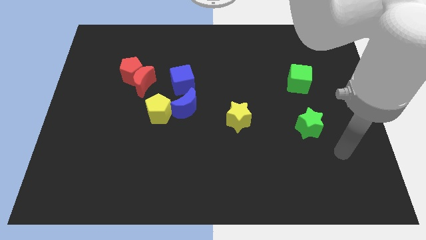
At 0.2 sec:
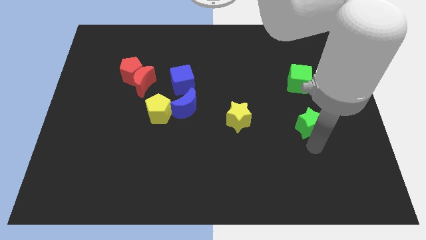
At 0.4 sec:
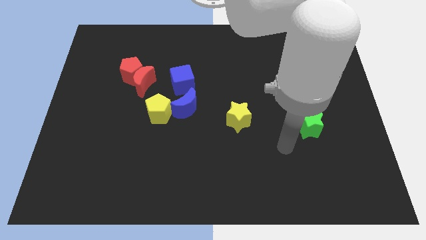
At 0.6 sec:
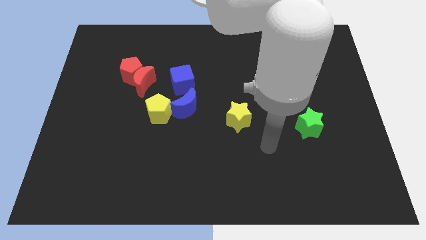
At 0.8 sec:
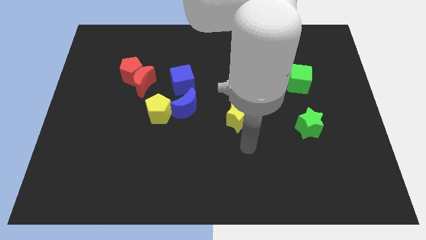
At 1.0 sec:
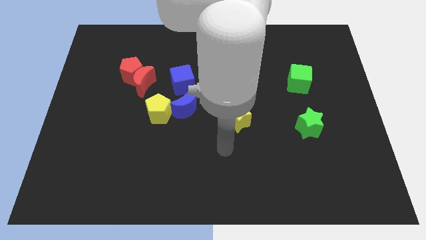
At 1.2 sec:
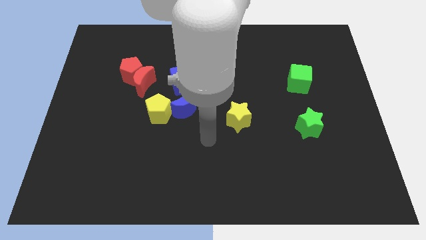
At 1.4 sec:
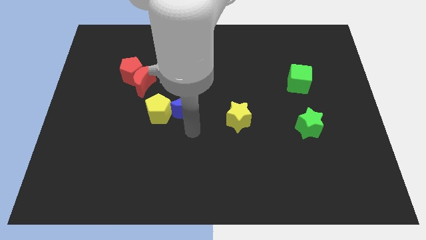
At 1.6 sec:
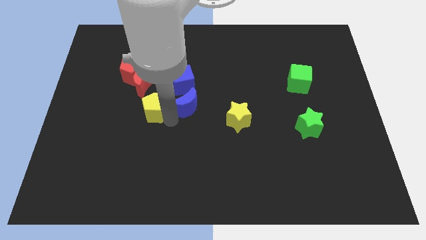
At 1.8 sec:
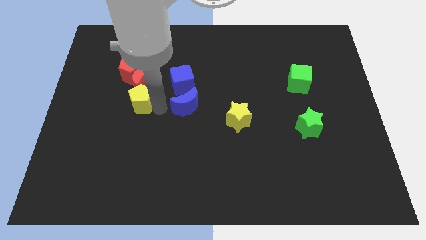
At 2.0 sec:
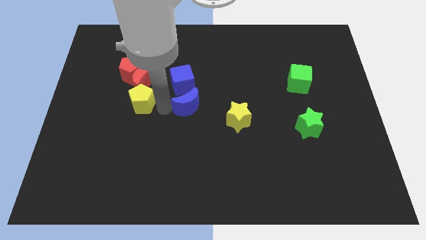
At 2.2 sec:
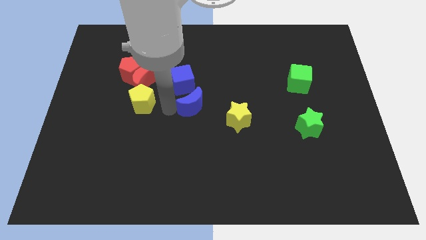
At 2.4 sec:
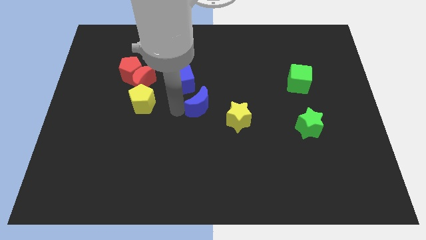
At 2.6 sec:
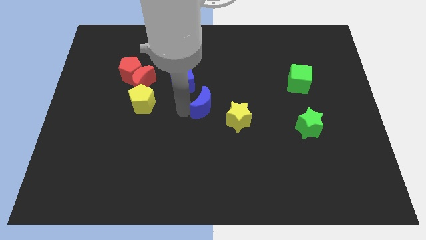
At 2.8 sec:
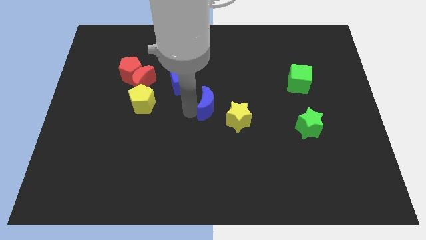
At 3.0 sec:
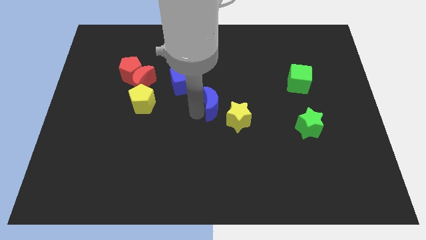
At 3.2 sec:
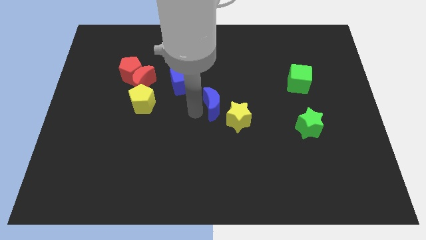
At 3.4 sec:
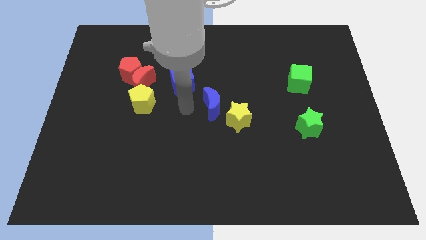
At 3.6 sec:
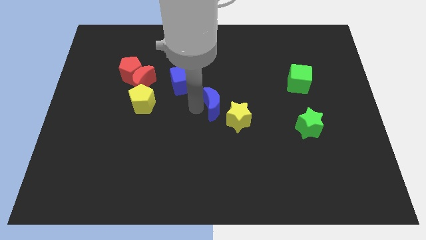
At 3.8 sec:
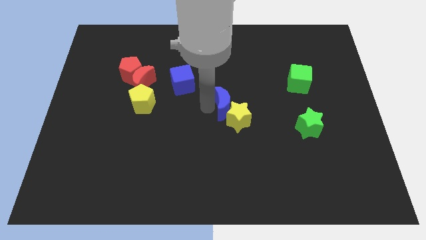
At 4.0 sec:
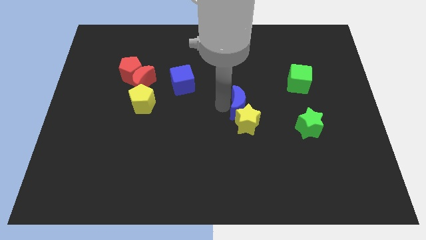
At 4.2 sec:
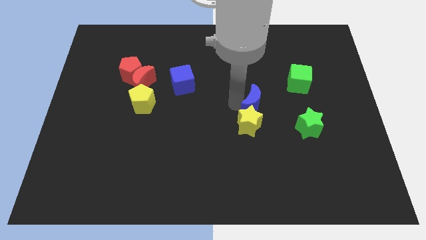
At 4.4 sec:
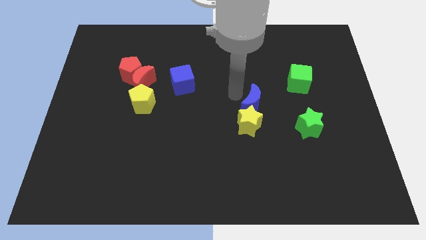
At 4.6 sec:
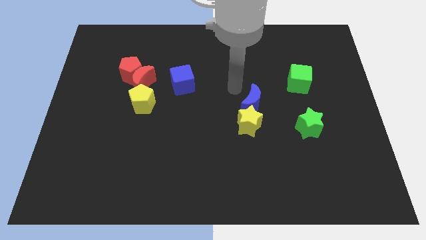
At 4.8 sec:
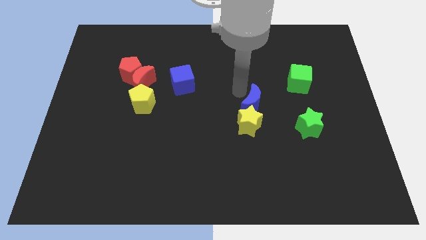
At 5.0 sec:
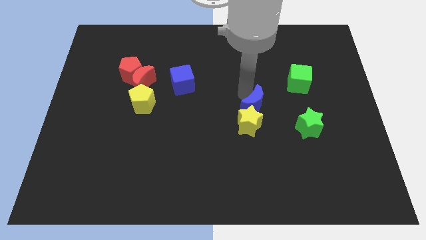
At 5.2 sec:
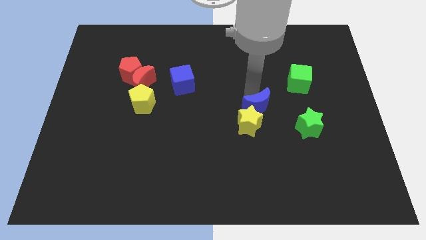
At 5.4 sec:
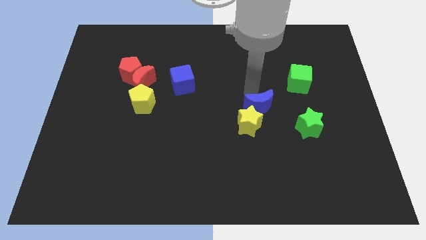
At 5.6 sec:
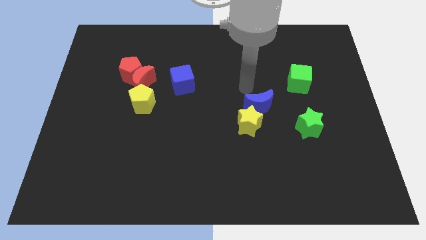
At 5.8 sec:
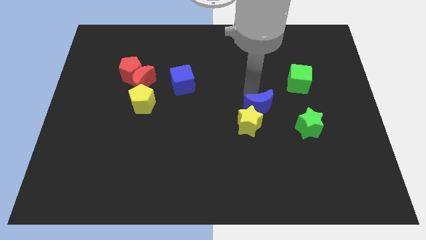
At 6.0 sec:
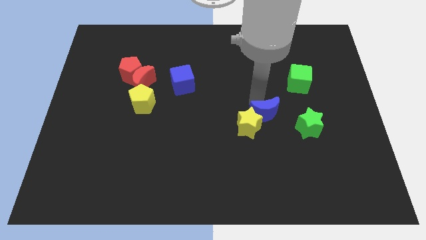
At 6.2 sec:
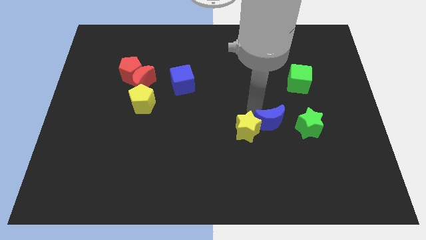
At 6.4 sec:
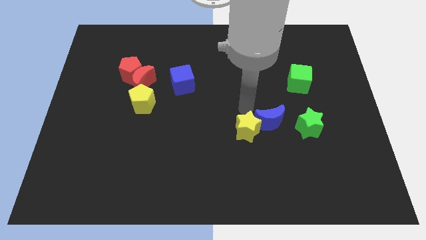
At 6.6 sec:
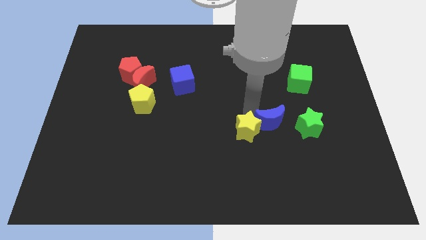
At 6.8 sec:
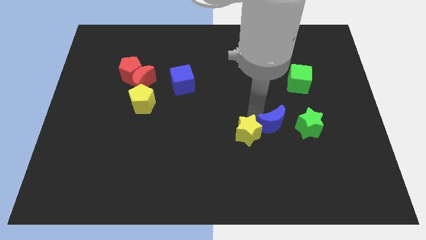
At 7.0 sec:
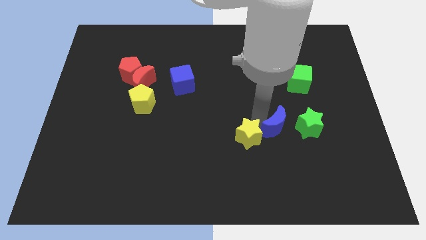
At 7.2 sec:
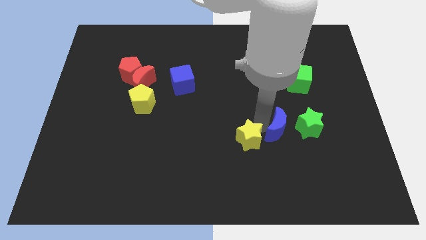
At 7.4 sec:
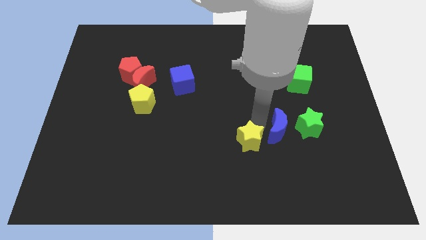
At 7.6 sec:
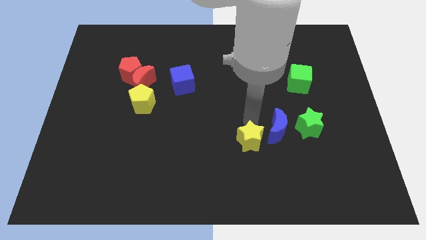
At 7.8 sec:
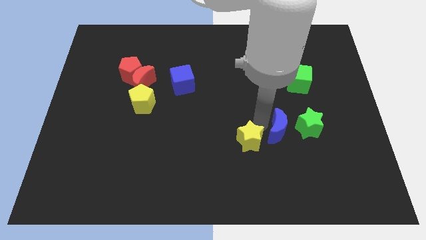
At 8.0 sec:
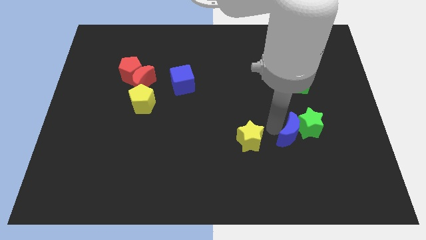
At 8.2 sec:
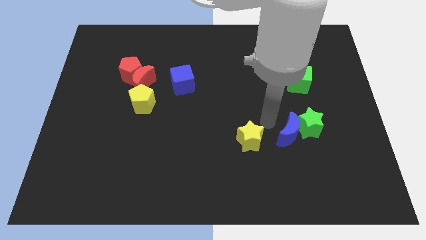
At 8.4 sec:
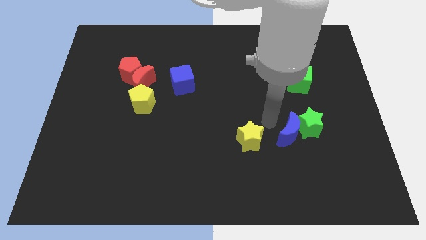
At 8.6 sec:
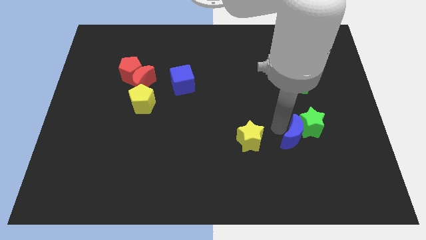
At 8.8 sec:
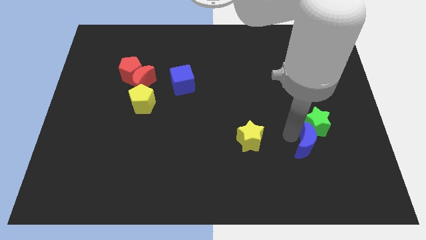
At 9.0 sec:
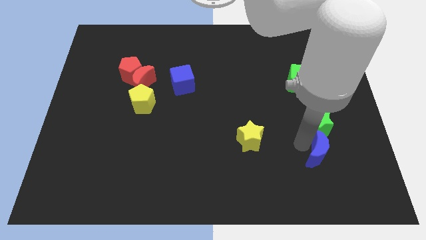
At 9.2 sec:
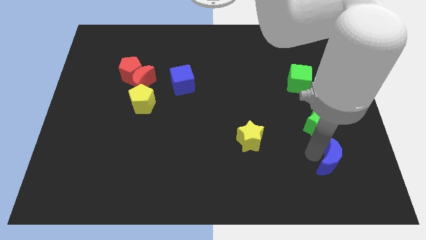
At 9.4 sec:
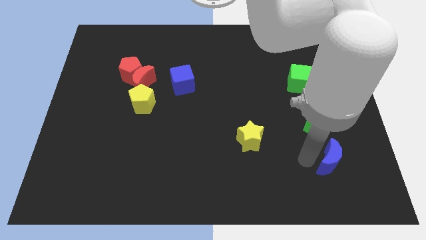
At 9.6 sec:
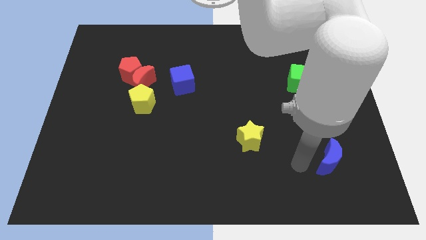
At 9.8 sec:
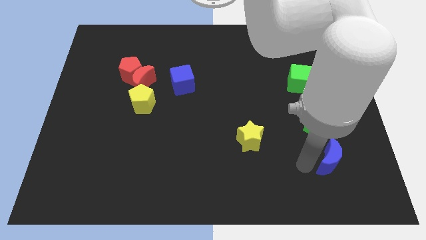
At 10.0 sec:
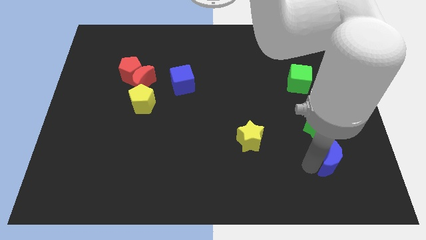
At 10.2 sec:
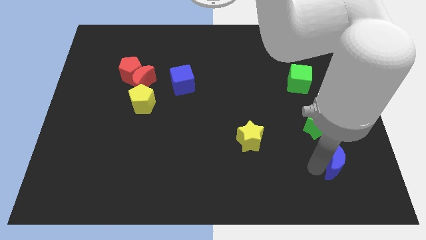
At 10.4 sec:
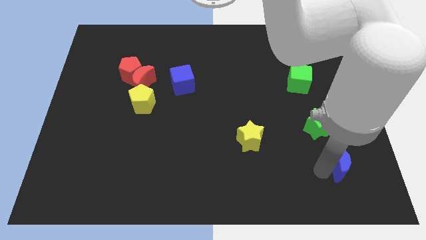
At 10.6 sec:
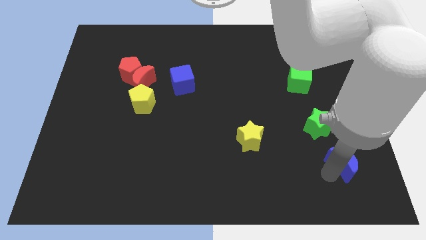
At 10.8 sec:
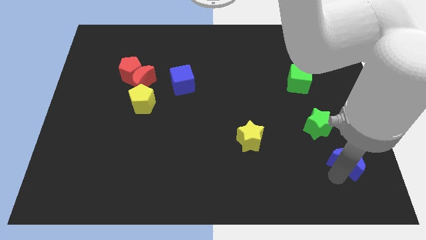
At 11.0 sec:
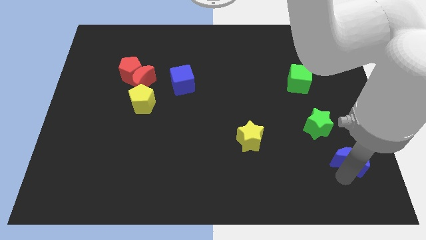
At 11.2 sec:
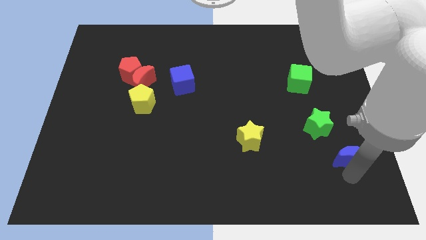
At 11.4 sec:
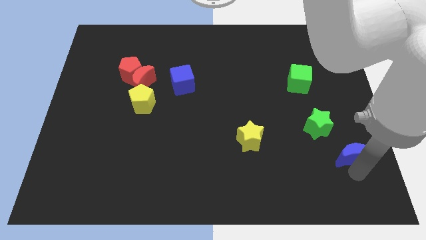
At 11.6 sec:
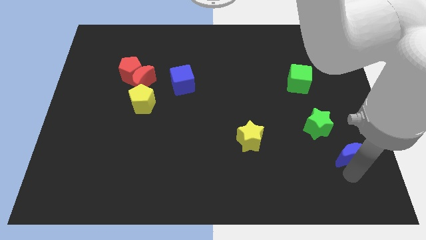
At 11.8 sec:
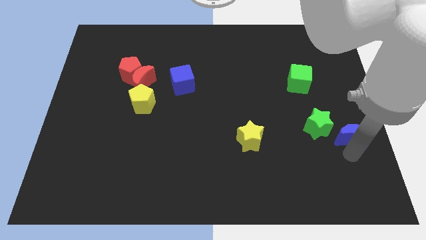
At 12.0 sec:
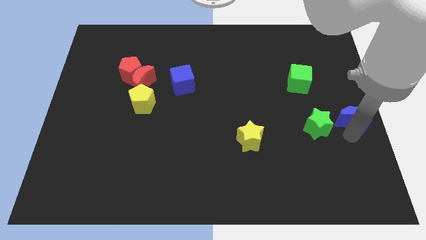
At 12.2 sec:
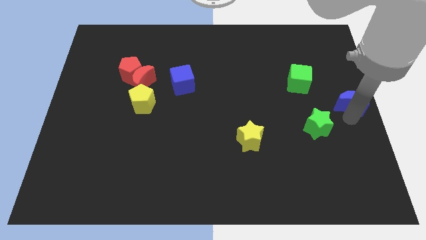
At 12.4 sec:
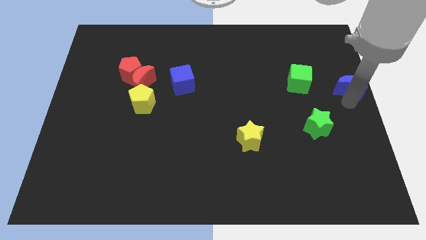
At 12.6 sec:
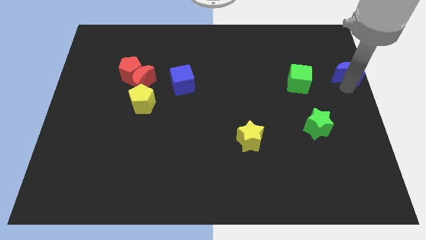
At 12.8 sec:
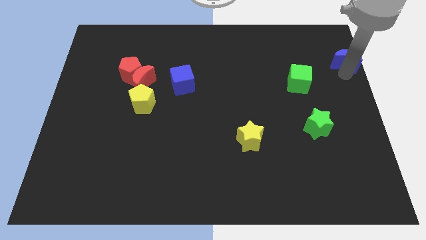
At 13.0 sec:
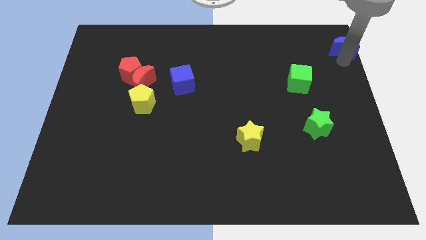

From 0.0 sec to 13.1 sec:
slide the blue moon to the upper right corner
